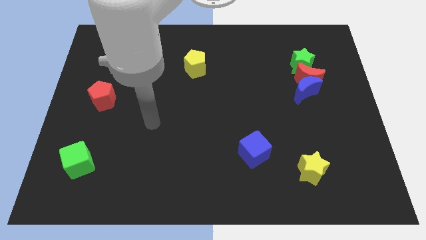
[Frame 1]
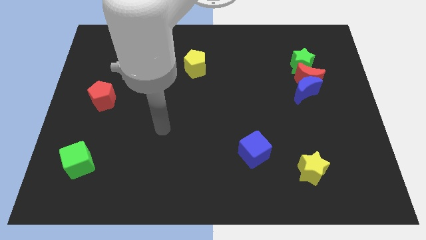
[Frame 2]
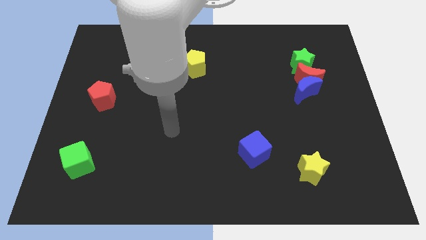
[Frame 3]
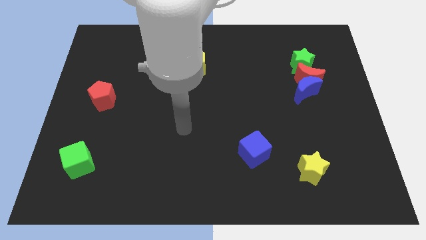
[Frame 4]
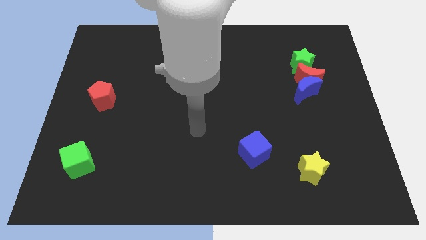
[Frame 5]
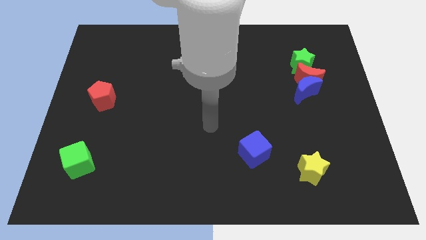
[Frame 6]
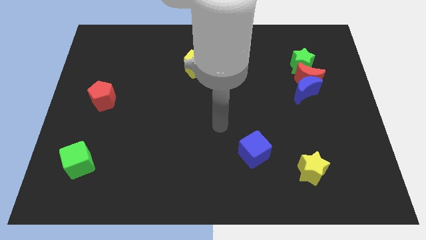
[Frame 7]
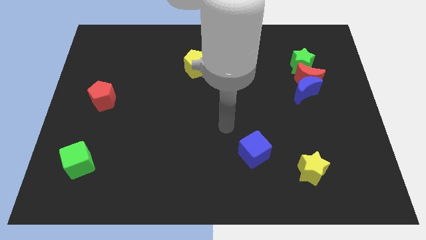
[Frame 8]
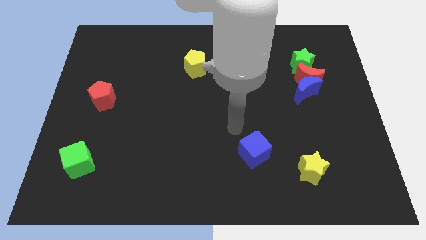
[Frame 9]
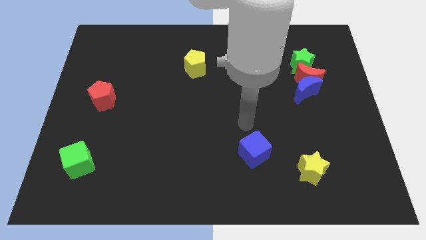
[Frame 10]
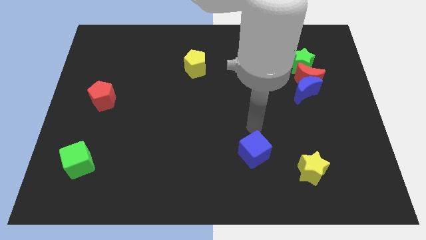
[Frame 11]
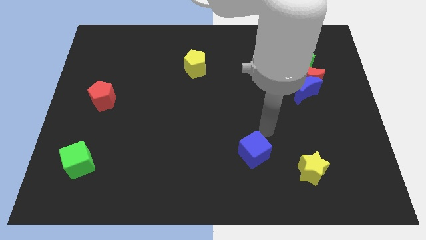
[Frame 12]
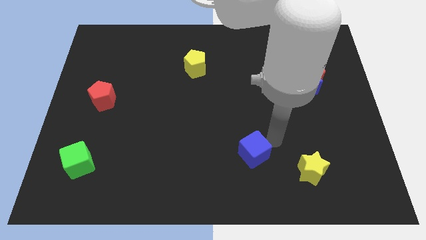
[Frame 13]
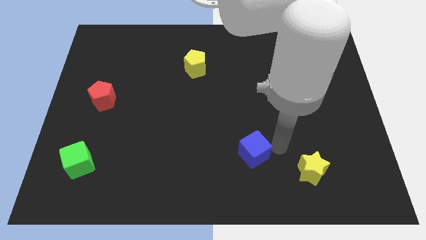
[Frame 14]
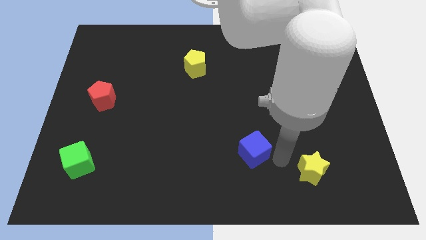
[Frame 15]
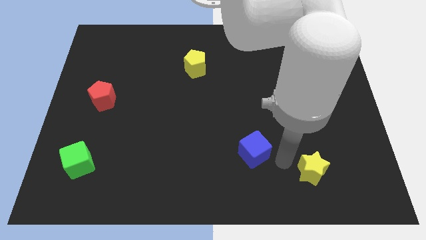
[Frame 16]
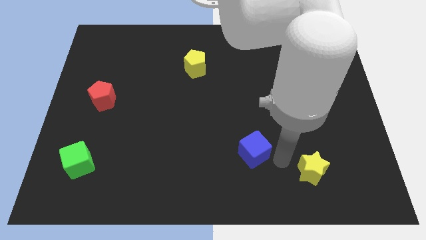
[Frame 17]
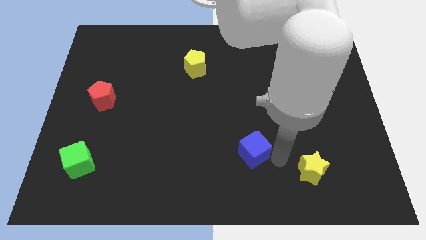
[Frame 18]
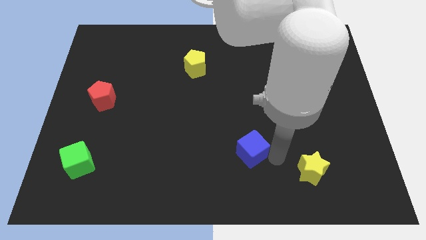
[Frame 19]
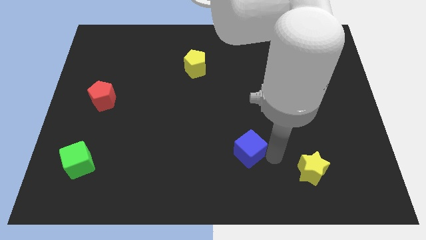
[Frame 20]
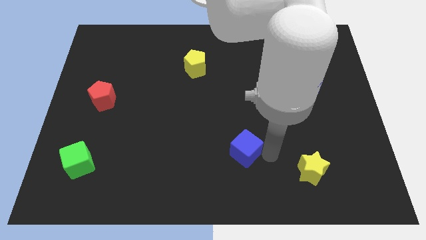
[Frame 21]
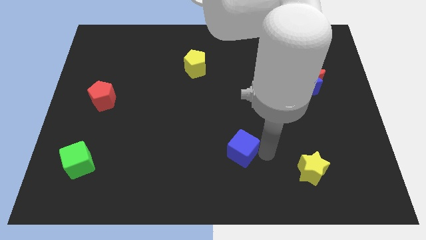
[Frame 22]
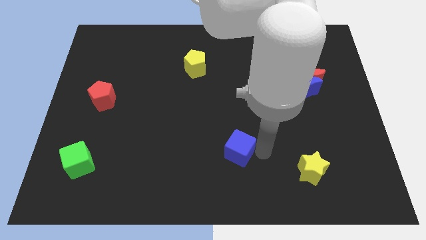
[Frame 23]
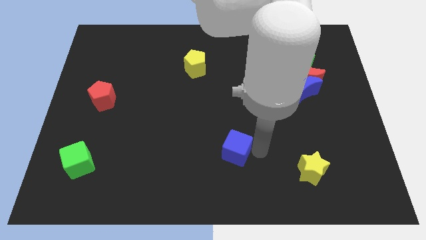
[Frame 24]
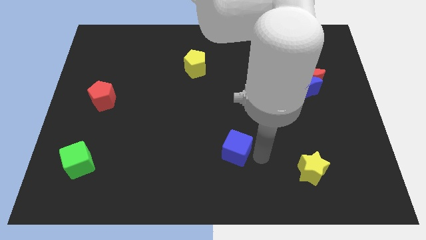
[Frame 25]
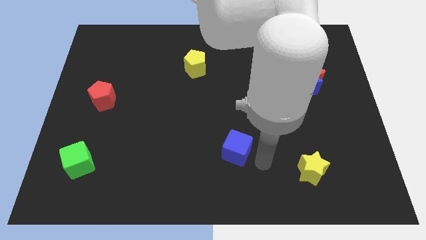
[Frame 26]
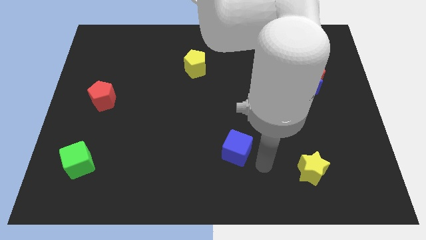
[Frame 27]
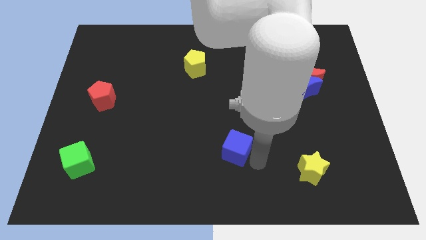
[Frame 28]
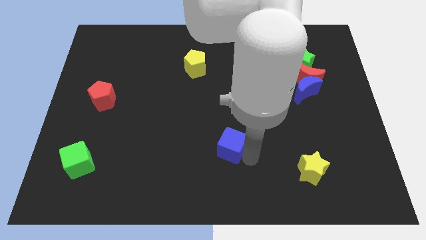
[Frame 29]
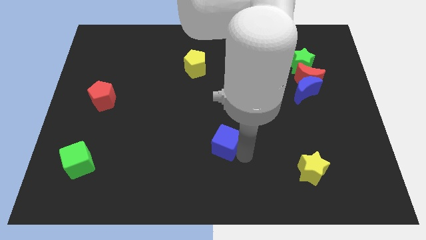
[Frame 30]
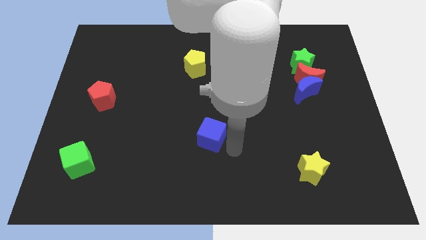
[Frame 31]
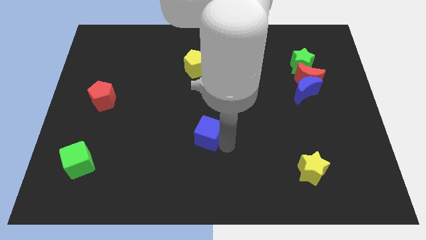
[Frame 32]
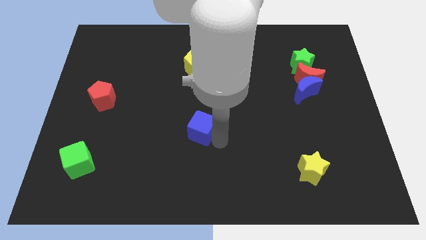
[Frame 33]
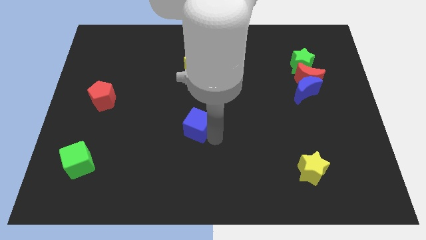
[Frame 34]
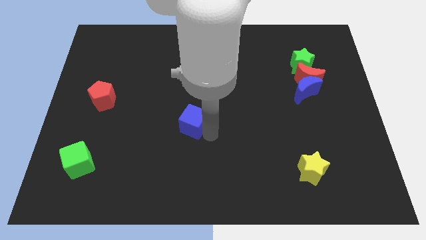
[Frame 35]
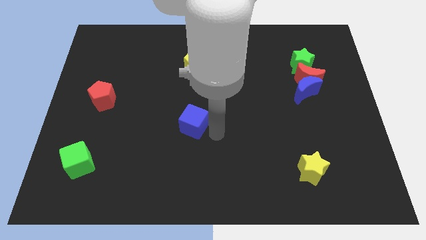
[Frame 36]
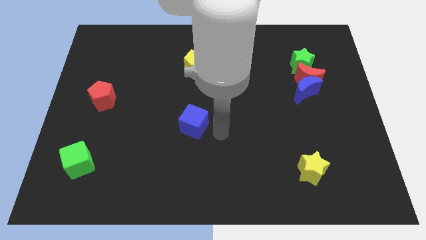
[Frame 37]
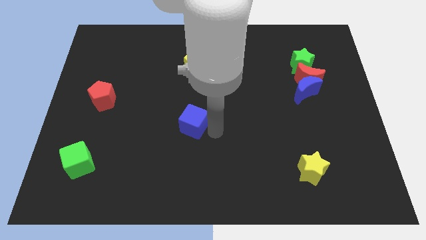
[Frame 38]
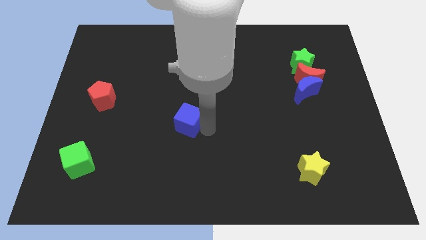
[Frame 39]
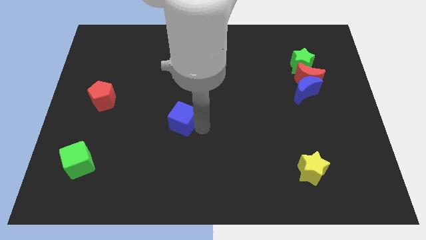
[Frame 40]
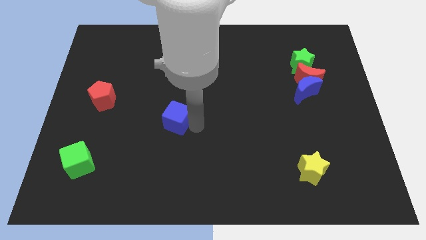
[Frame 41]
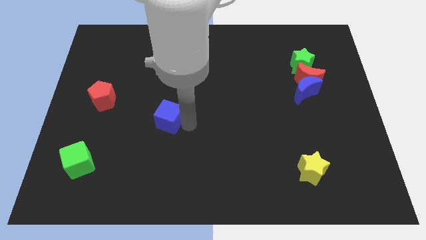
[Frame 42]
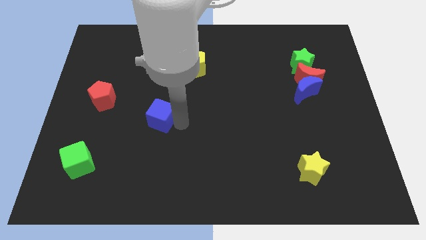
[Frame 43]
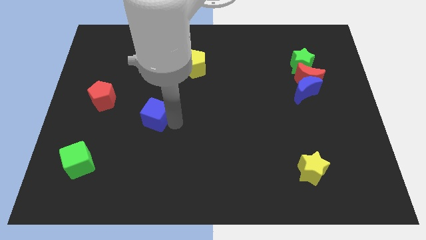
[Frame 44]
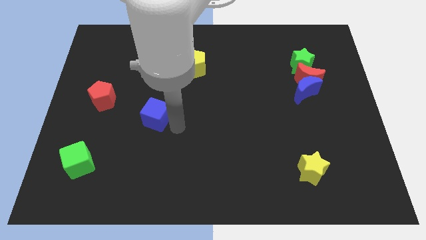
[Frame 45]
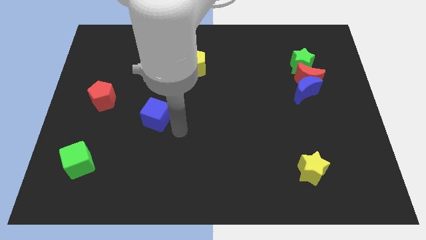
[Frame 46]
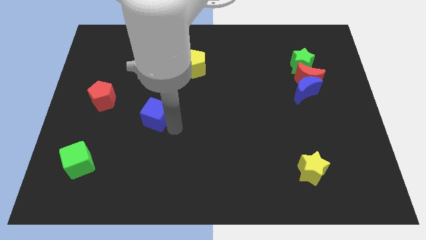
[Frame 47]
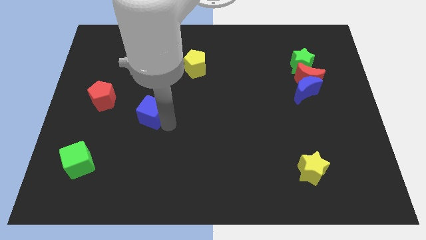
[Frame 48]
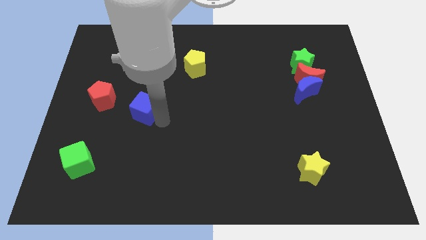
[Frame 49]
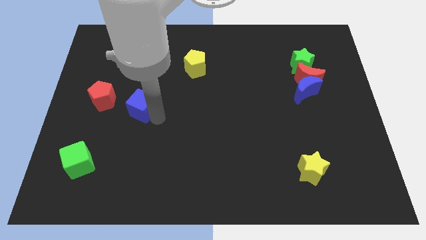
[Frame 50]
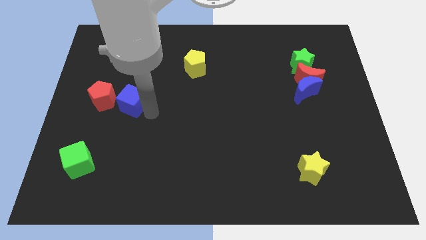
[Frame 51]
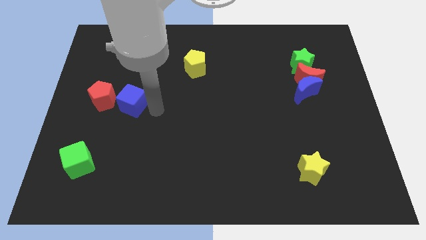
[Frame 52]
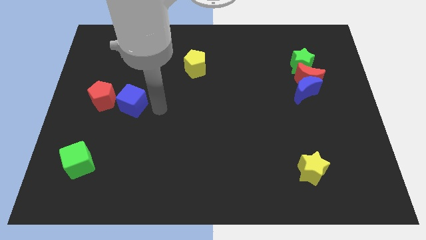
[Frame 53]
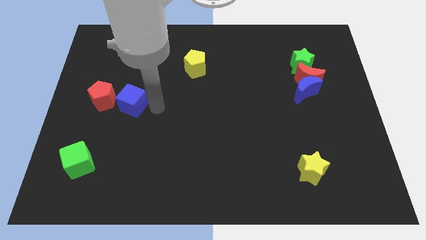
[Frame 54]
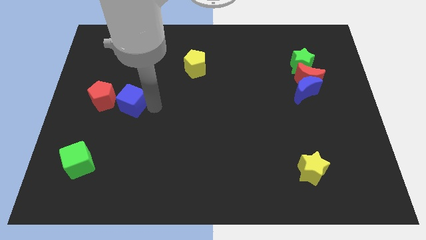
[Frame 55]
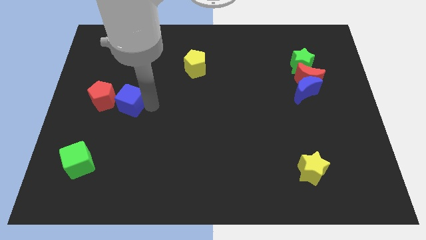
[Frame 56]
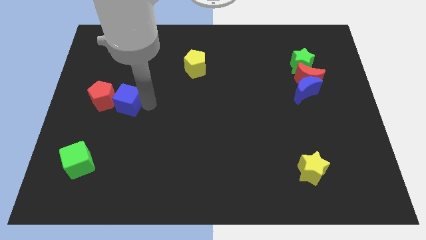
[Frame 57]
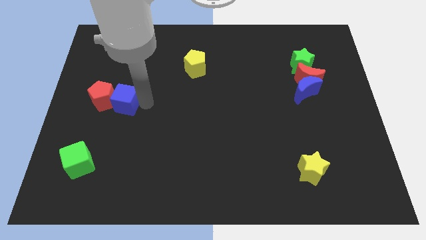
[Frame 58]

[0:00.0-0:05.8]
push the blue cube towards the red pentagon

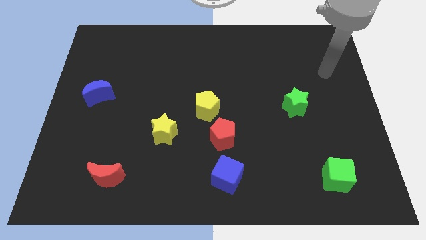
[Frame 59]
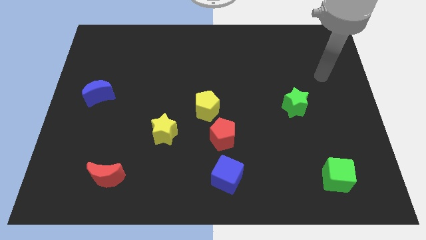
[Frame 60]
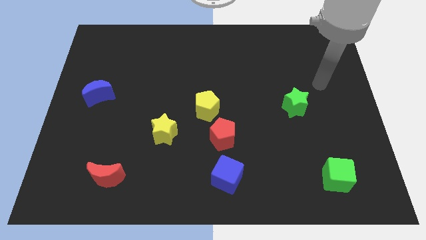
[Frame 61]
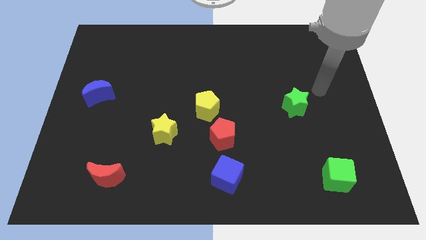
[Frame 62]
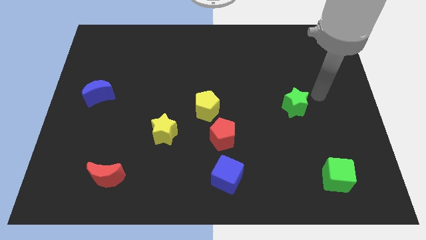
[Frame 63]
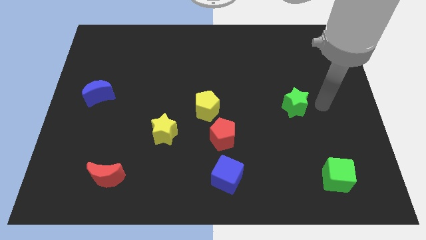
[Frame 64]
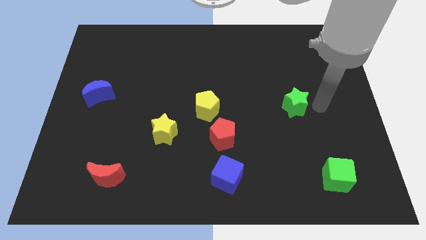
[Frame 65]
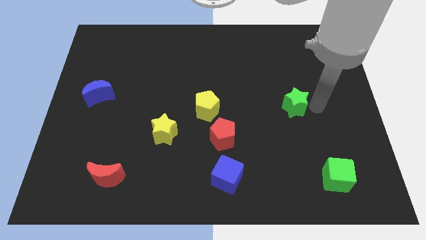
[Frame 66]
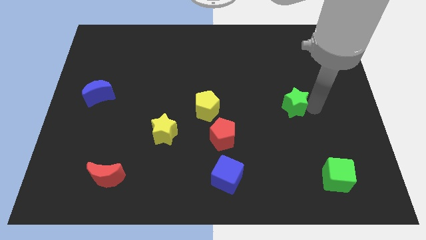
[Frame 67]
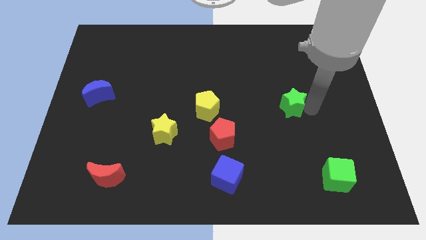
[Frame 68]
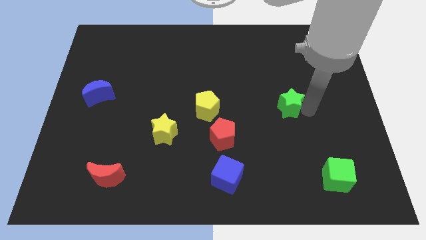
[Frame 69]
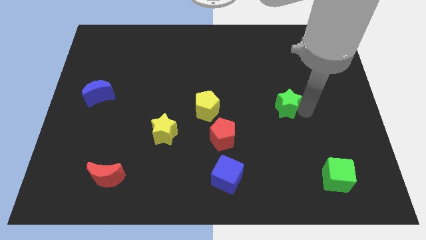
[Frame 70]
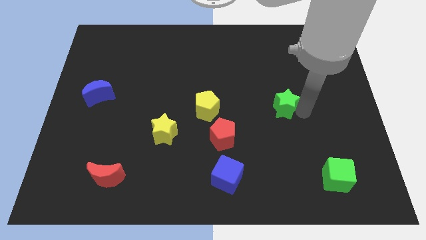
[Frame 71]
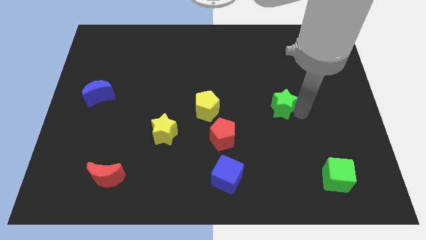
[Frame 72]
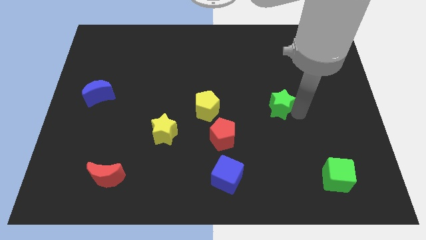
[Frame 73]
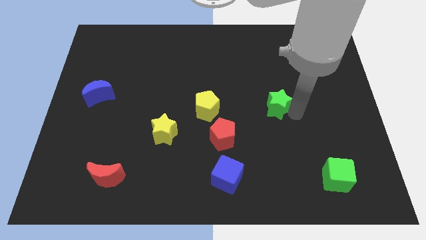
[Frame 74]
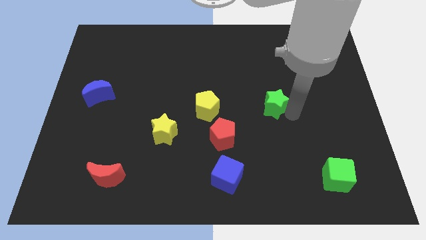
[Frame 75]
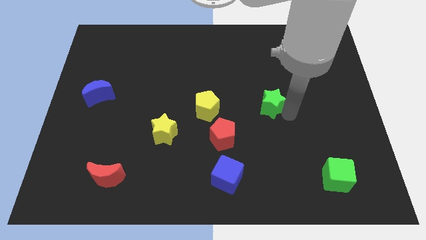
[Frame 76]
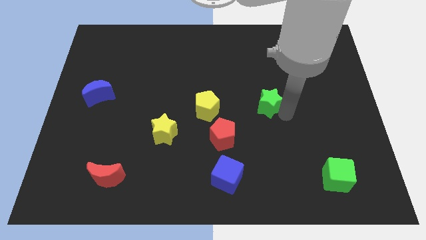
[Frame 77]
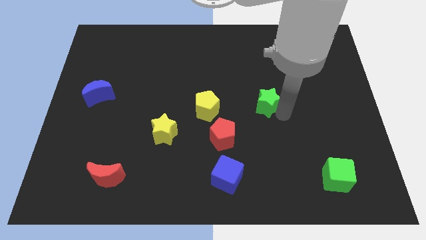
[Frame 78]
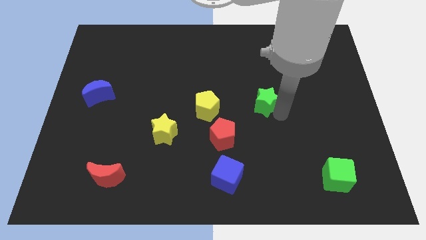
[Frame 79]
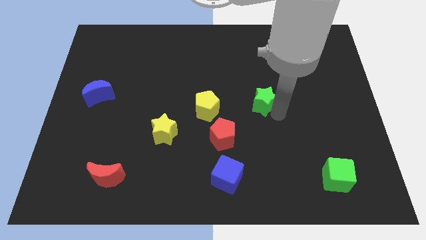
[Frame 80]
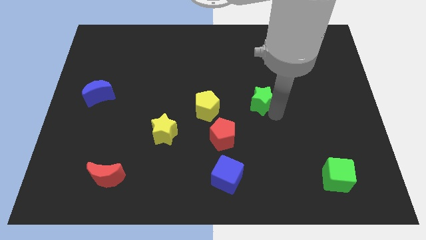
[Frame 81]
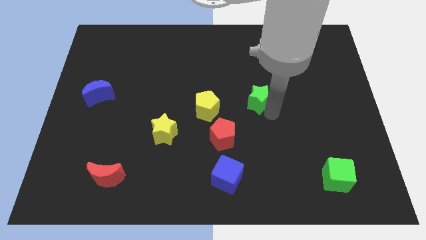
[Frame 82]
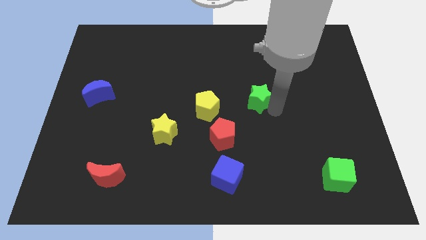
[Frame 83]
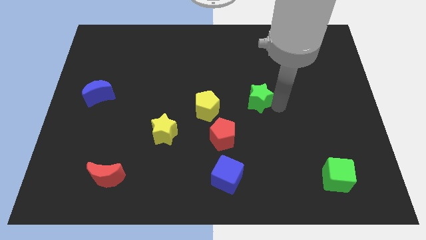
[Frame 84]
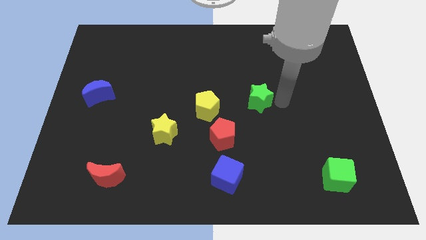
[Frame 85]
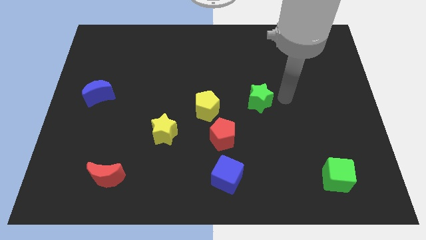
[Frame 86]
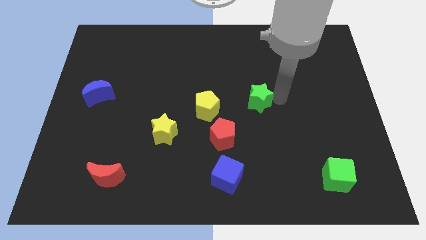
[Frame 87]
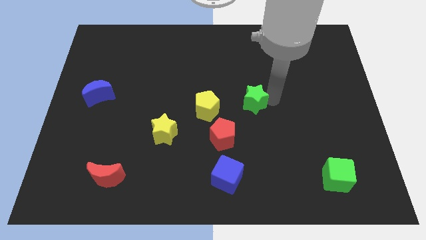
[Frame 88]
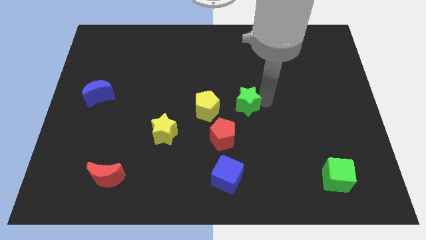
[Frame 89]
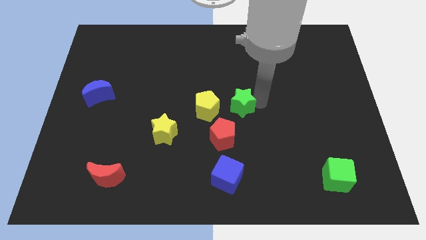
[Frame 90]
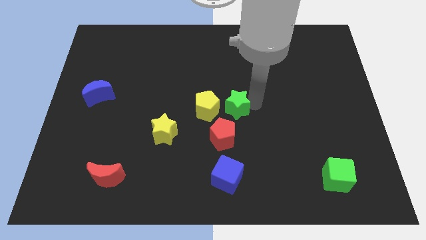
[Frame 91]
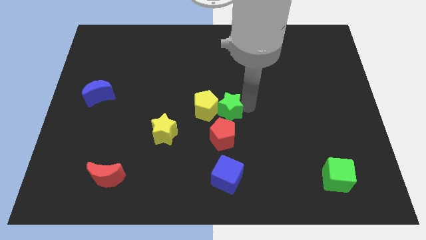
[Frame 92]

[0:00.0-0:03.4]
move the green star next to the yellow pentagon
